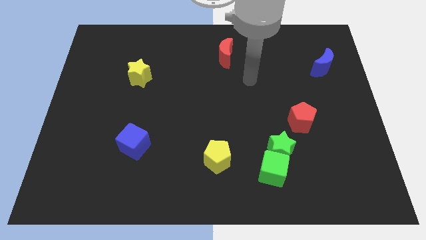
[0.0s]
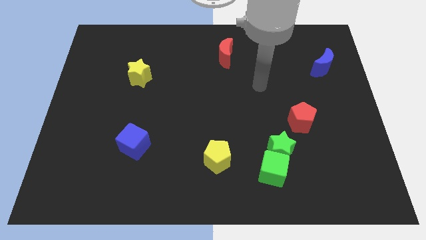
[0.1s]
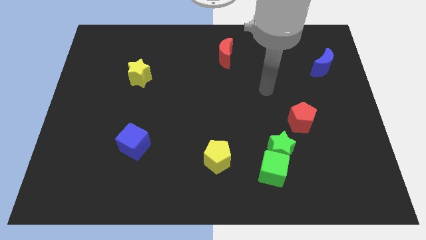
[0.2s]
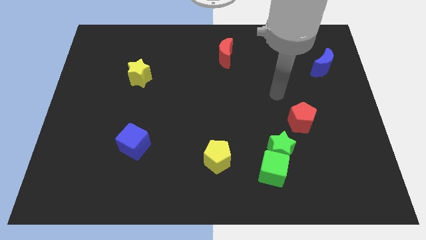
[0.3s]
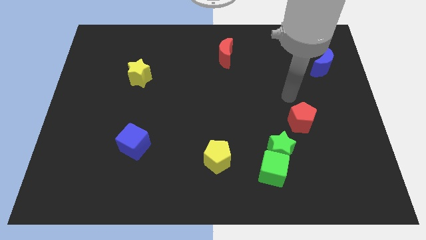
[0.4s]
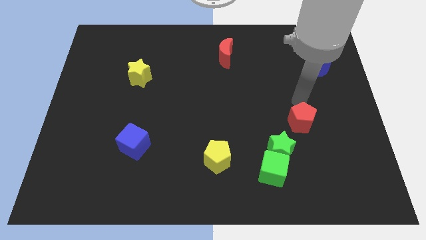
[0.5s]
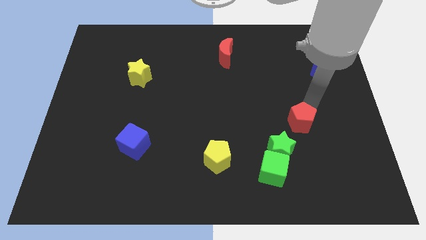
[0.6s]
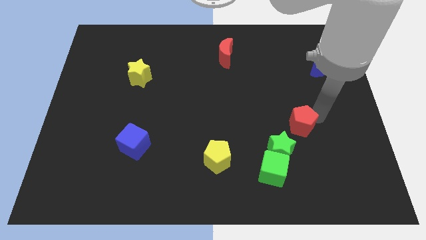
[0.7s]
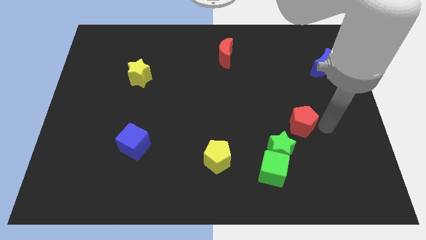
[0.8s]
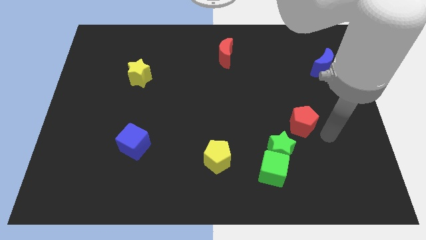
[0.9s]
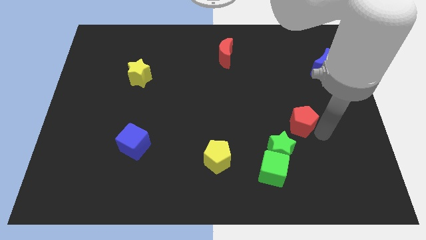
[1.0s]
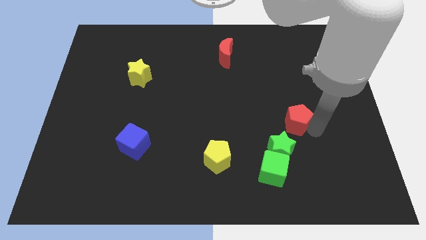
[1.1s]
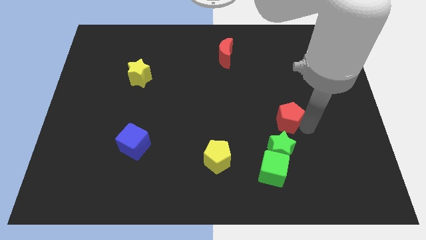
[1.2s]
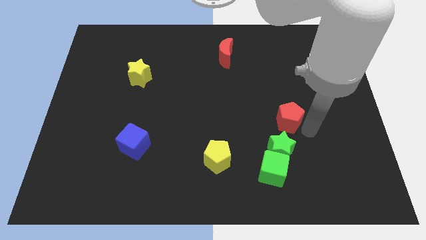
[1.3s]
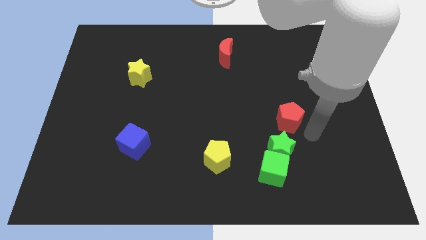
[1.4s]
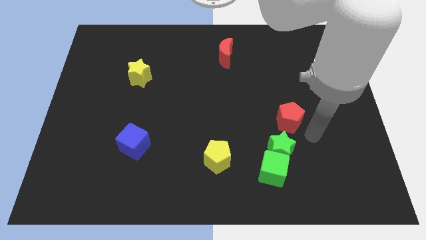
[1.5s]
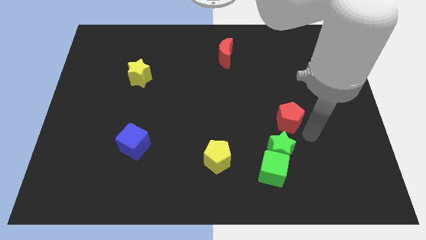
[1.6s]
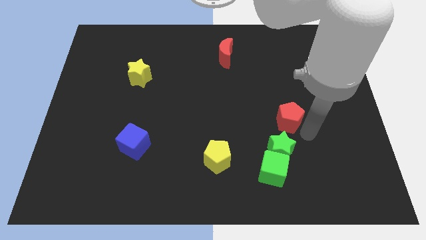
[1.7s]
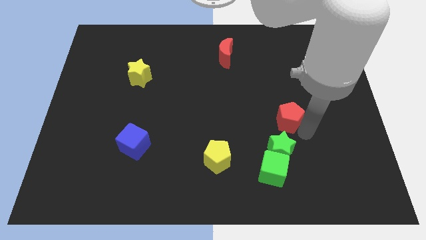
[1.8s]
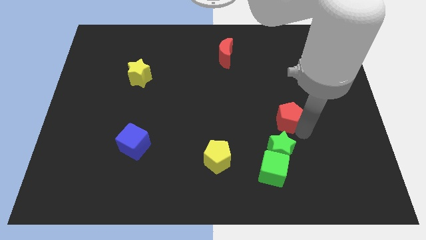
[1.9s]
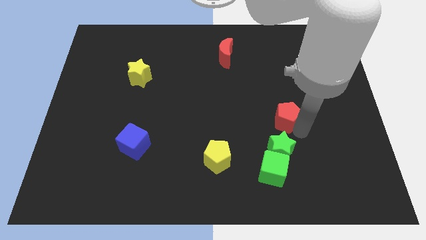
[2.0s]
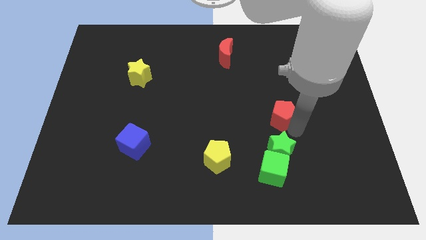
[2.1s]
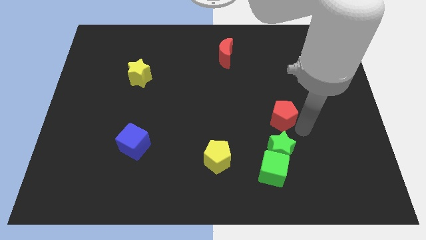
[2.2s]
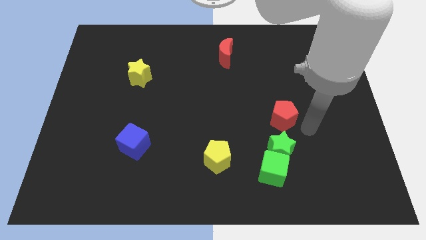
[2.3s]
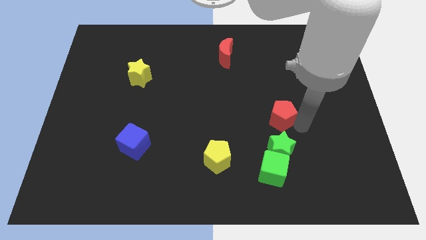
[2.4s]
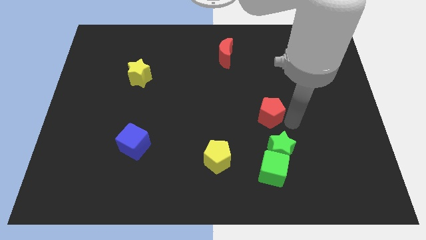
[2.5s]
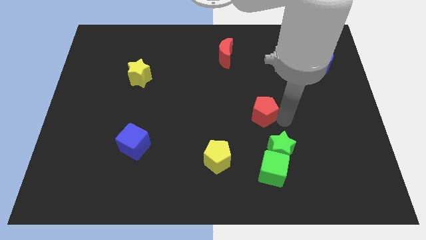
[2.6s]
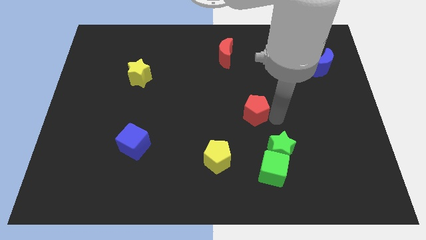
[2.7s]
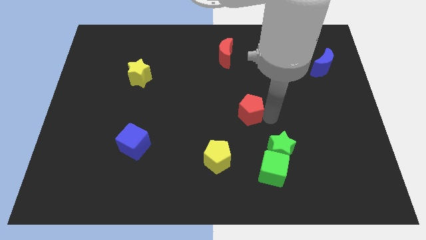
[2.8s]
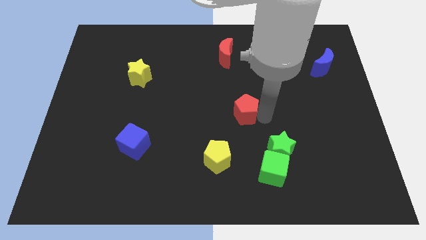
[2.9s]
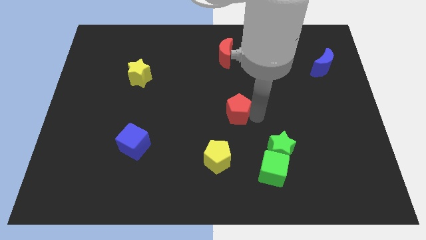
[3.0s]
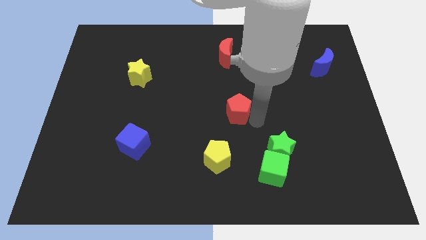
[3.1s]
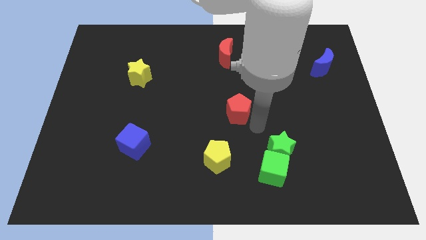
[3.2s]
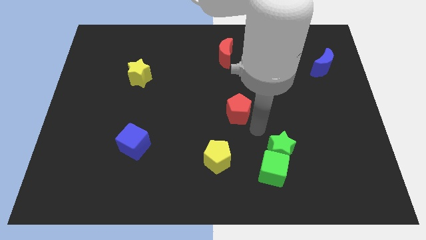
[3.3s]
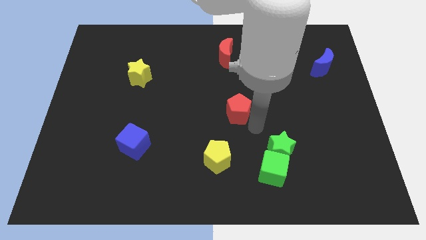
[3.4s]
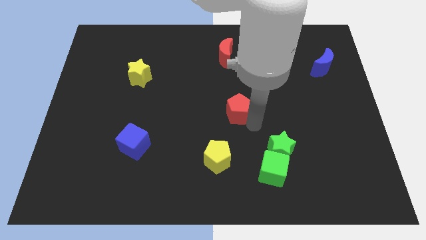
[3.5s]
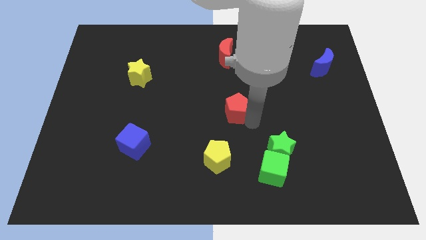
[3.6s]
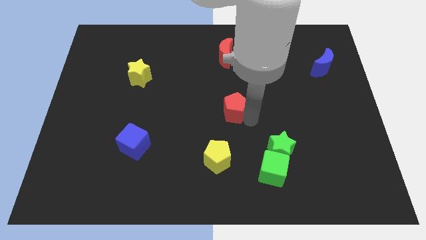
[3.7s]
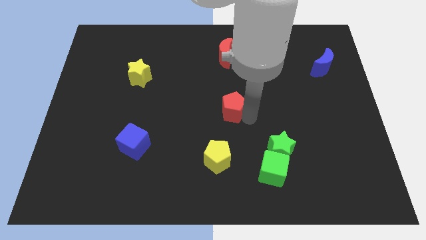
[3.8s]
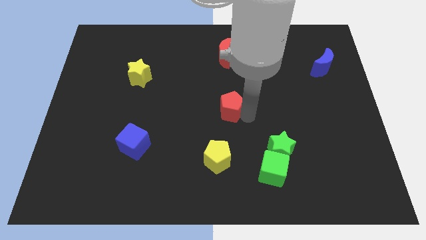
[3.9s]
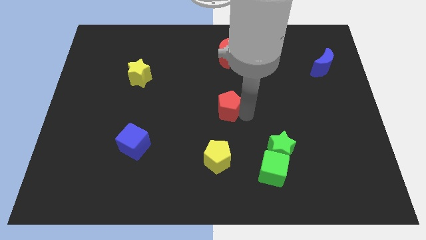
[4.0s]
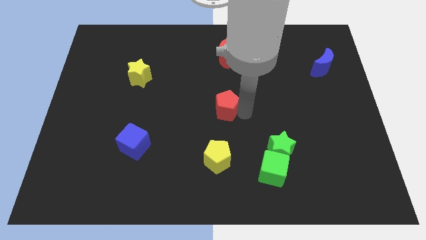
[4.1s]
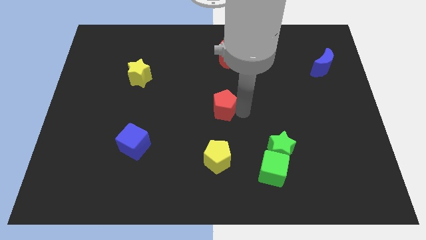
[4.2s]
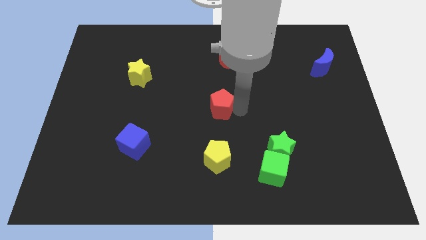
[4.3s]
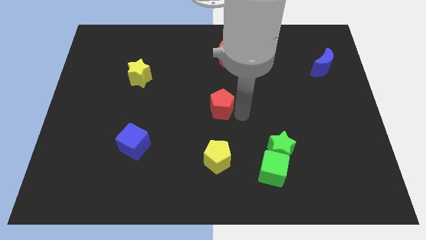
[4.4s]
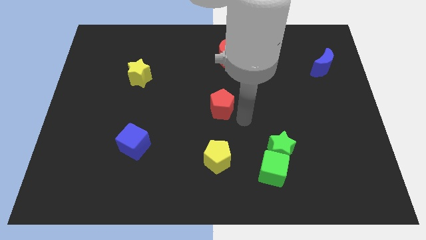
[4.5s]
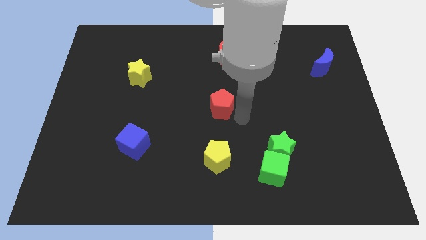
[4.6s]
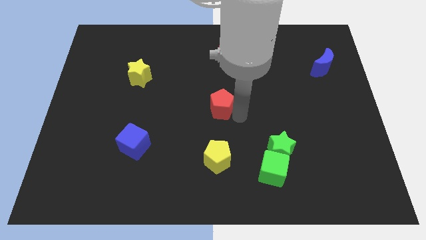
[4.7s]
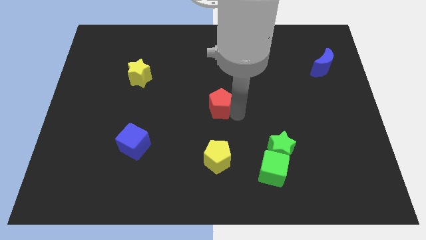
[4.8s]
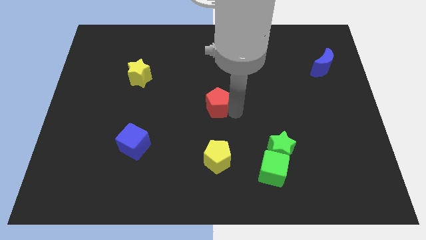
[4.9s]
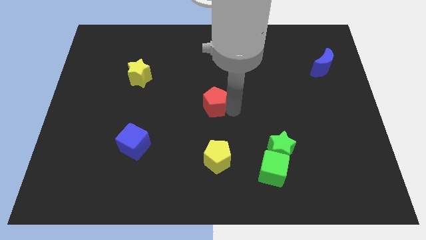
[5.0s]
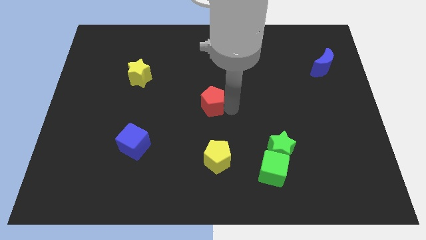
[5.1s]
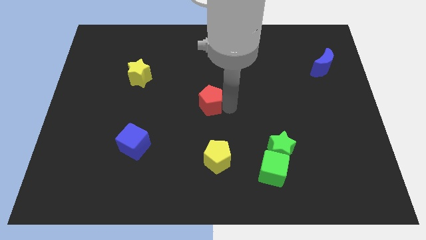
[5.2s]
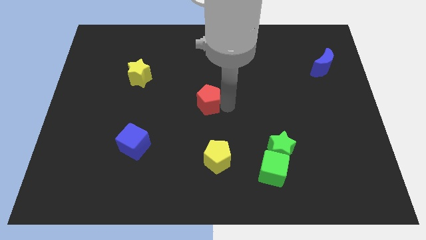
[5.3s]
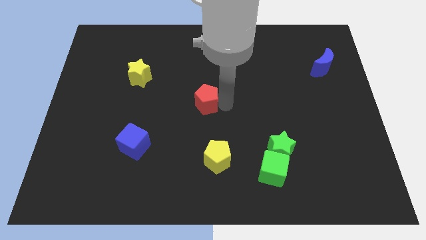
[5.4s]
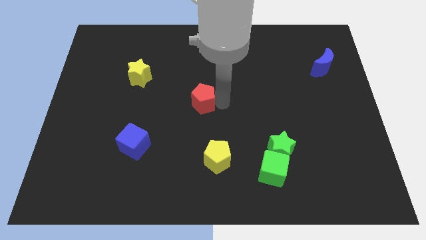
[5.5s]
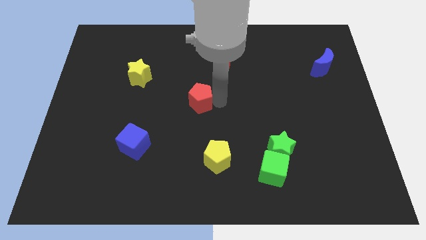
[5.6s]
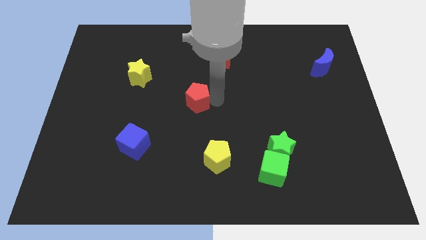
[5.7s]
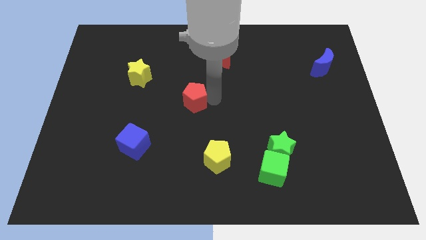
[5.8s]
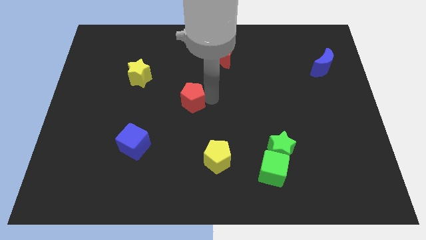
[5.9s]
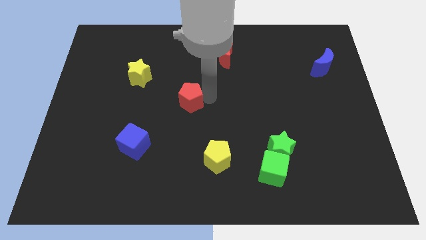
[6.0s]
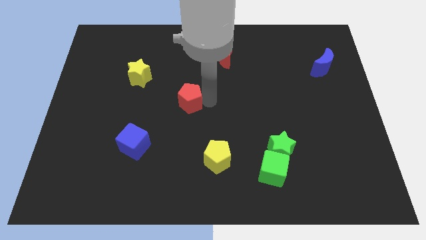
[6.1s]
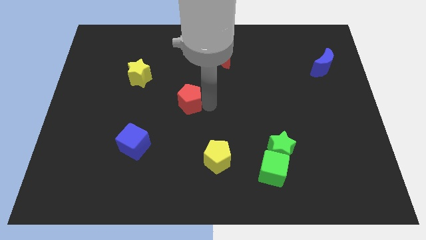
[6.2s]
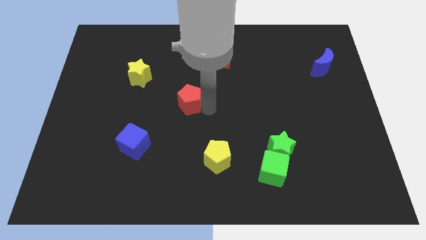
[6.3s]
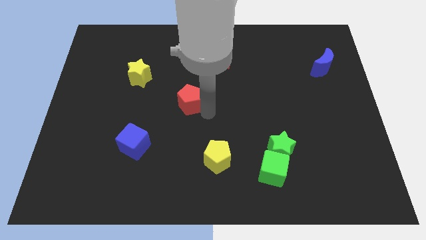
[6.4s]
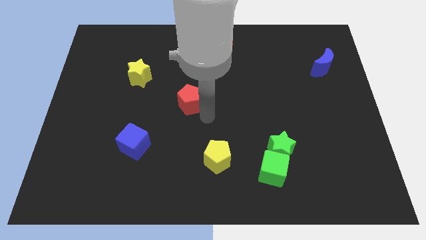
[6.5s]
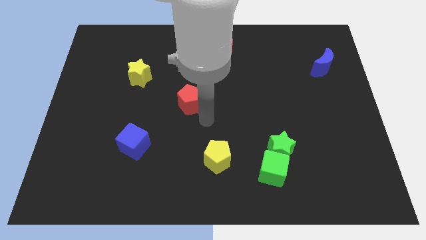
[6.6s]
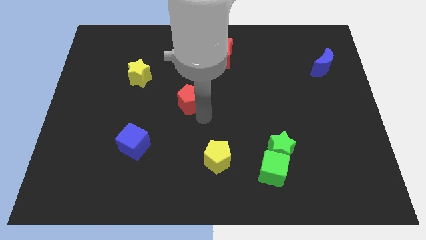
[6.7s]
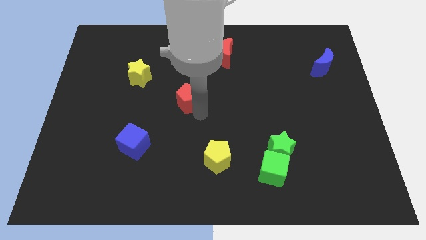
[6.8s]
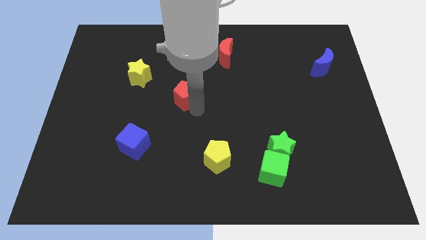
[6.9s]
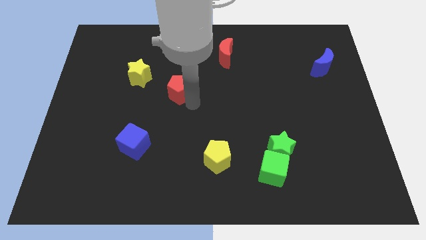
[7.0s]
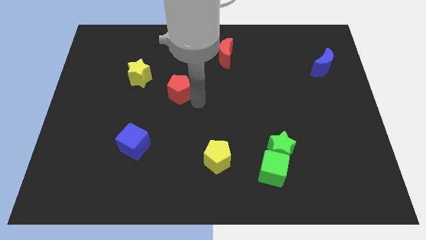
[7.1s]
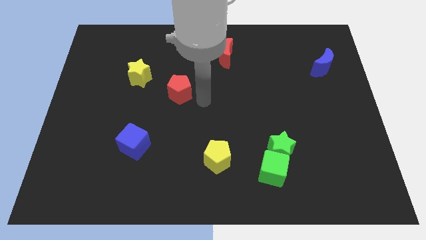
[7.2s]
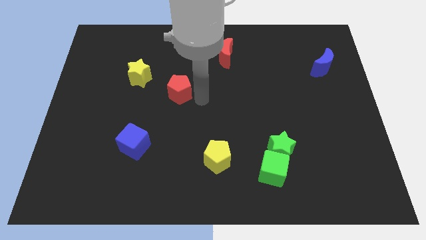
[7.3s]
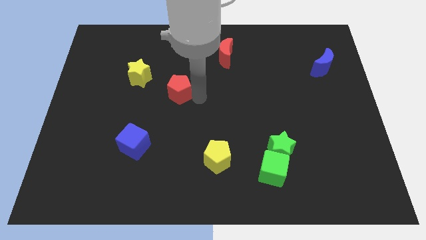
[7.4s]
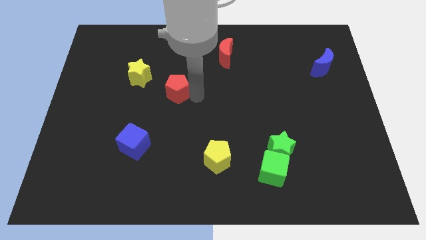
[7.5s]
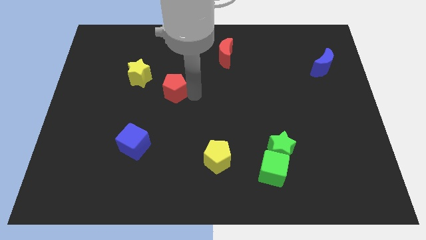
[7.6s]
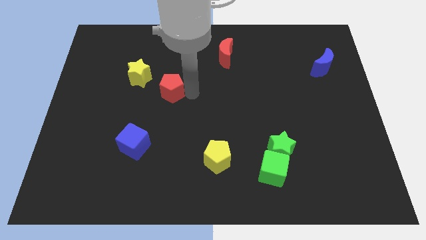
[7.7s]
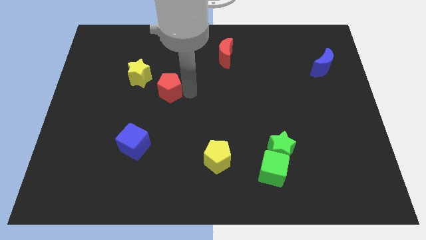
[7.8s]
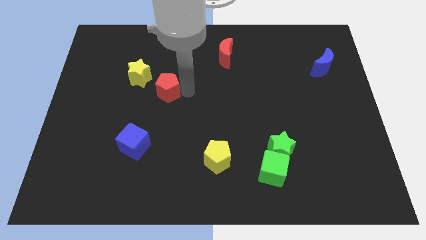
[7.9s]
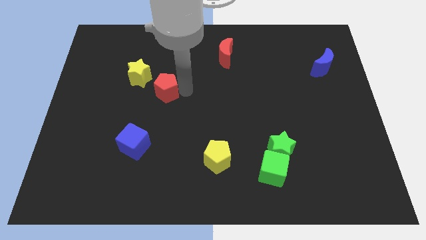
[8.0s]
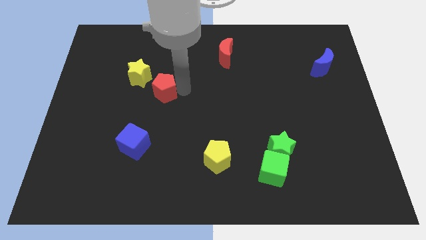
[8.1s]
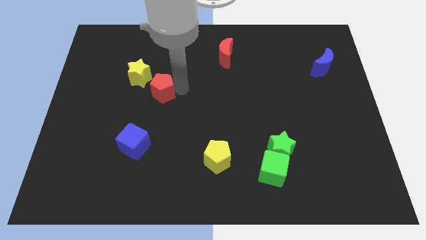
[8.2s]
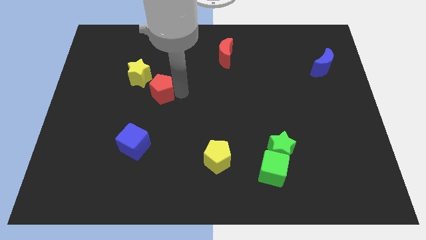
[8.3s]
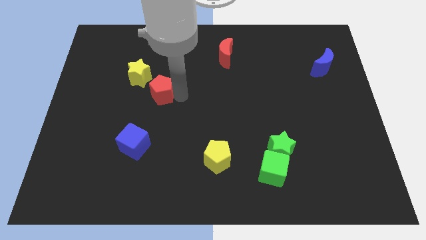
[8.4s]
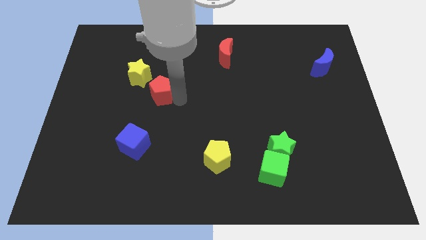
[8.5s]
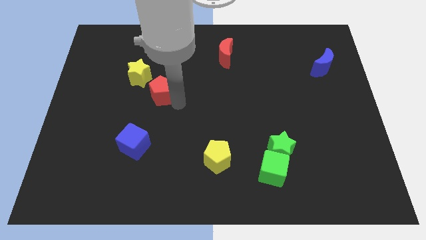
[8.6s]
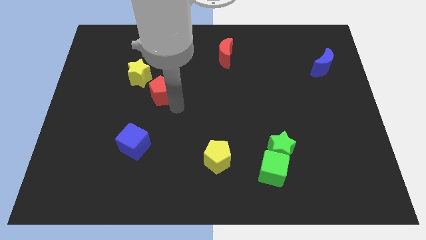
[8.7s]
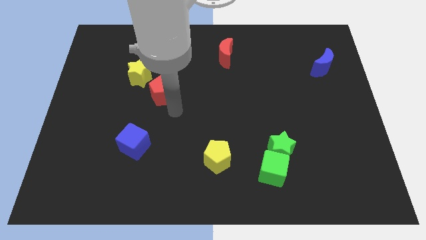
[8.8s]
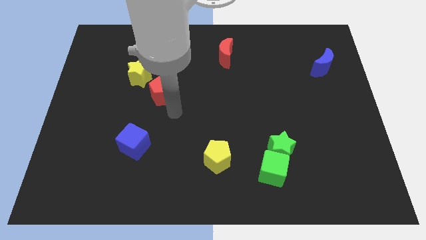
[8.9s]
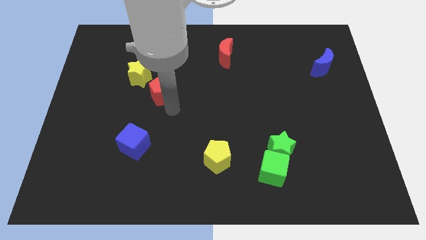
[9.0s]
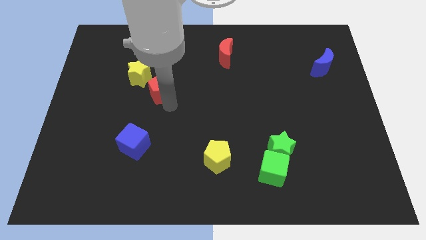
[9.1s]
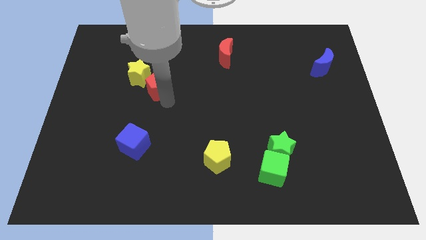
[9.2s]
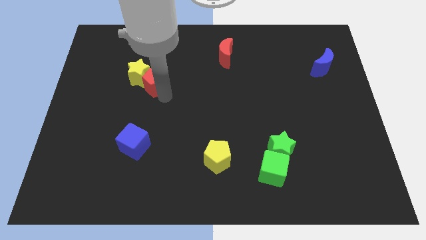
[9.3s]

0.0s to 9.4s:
move the red pentagon close to the yellow star
